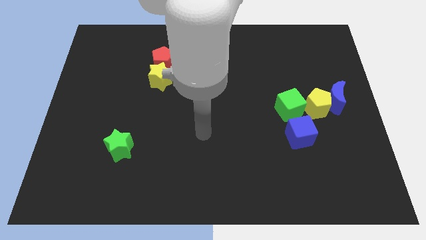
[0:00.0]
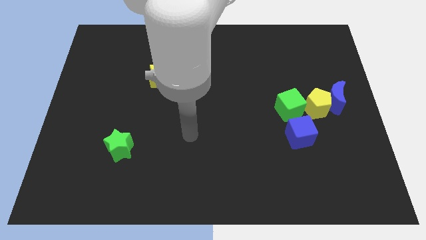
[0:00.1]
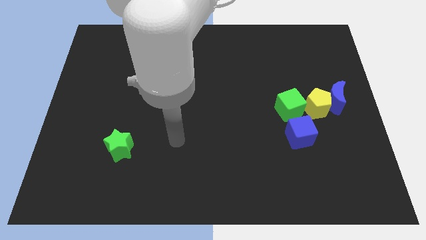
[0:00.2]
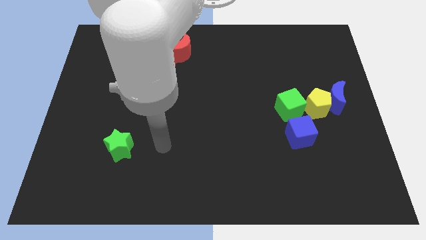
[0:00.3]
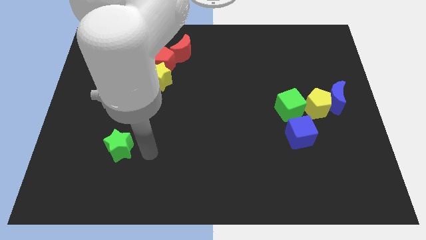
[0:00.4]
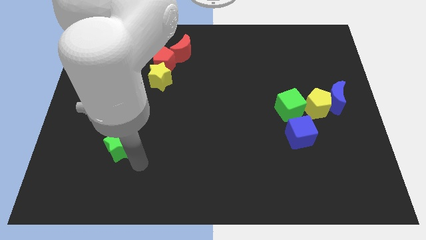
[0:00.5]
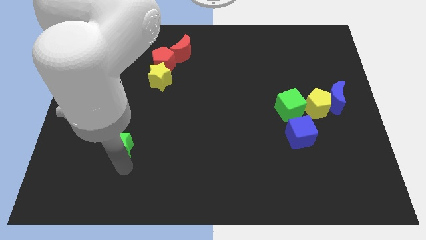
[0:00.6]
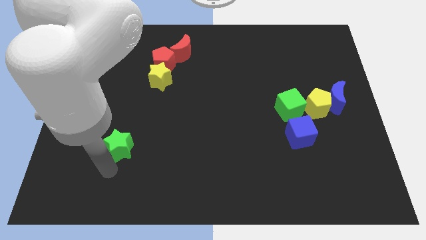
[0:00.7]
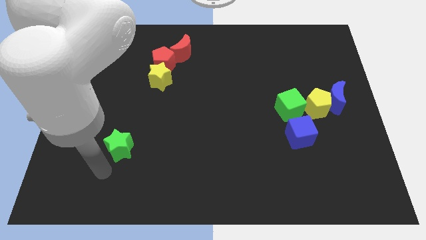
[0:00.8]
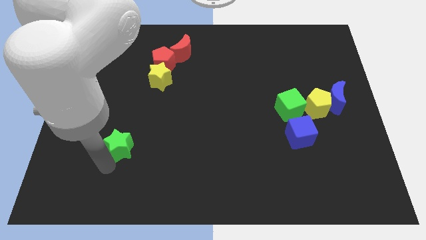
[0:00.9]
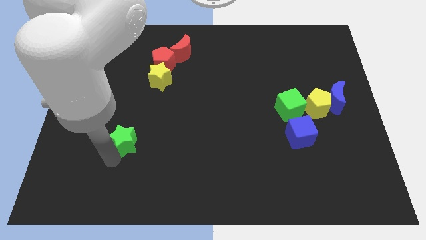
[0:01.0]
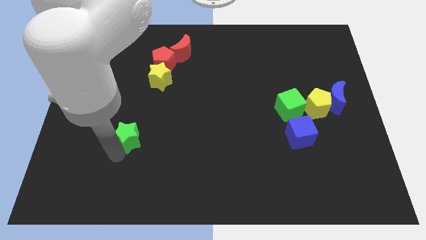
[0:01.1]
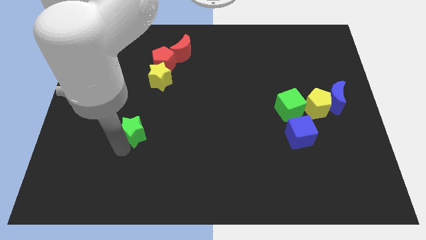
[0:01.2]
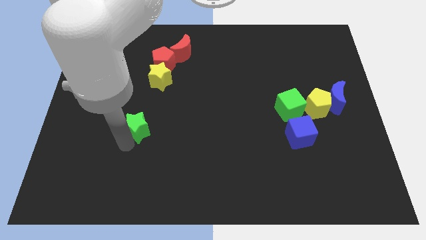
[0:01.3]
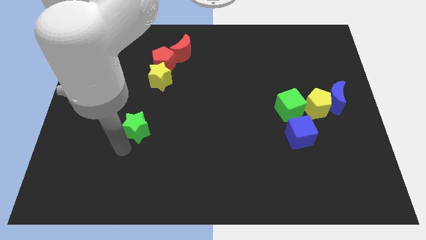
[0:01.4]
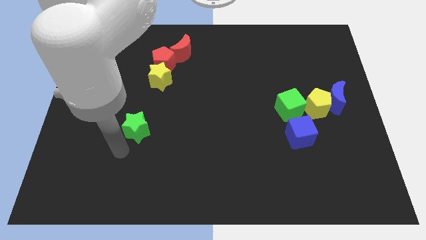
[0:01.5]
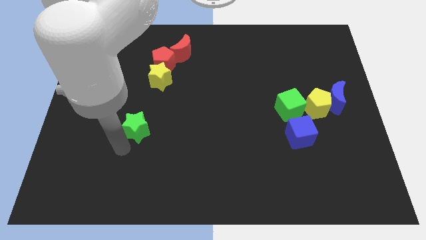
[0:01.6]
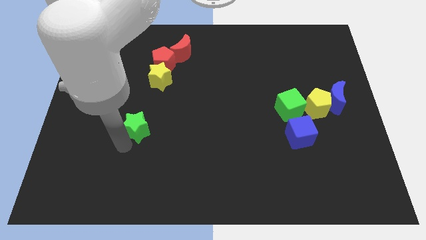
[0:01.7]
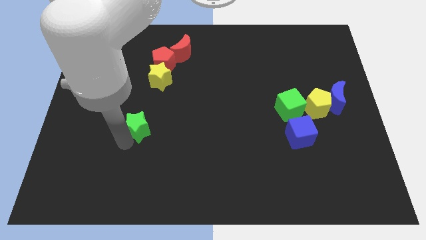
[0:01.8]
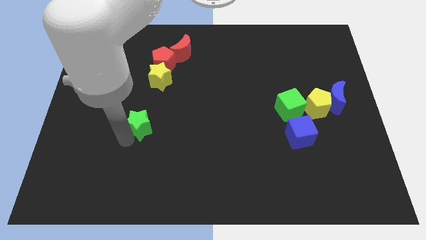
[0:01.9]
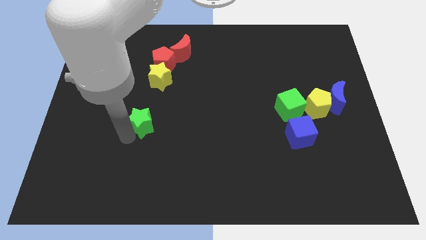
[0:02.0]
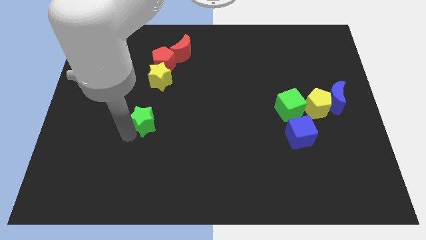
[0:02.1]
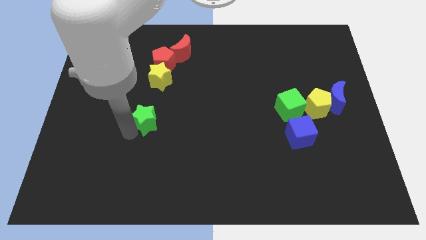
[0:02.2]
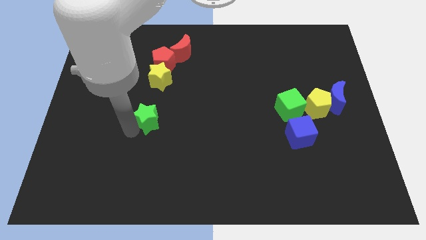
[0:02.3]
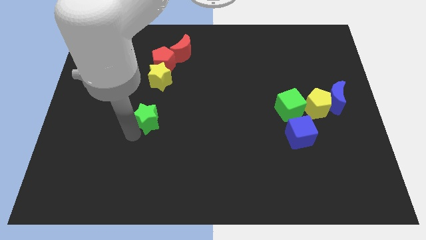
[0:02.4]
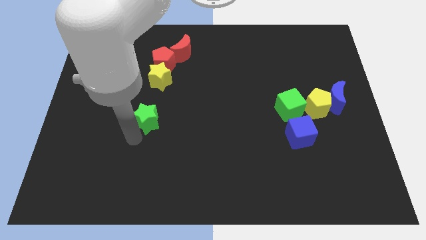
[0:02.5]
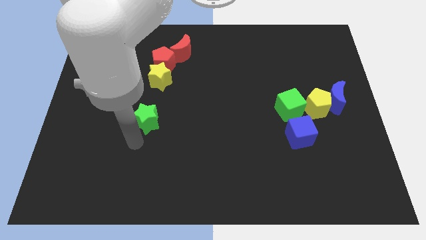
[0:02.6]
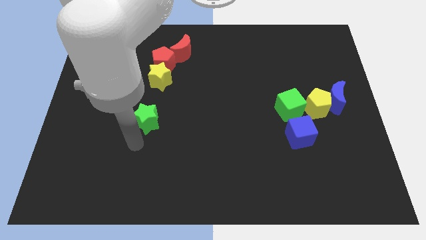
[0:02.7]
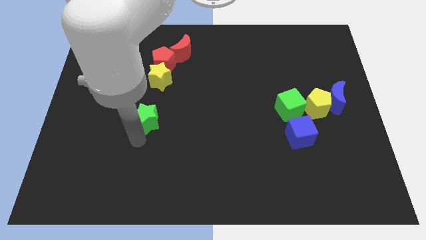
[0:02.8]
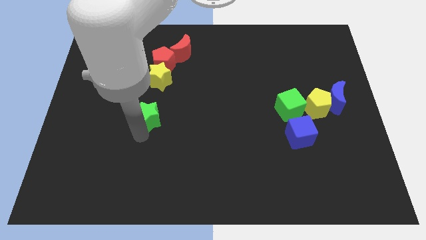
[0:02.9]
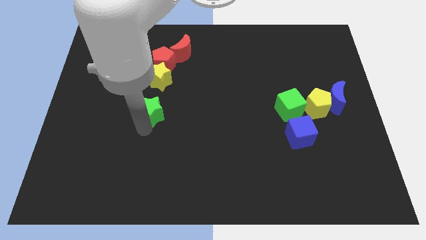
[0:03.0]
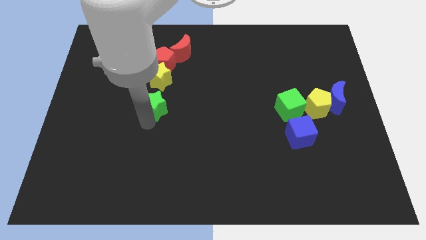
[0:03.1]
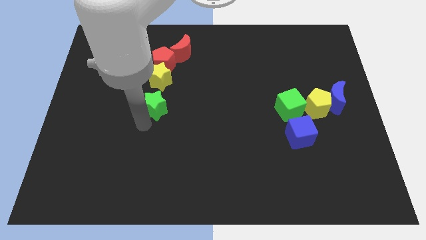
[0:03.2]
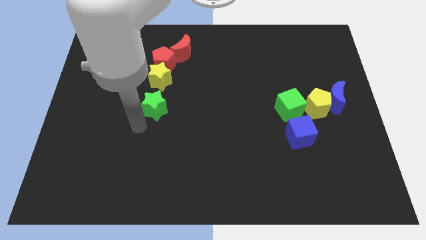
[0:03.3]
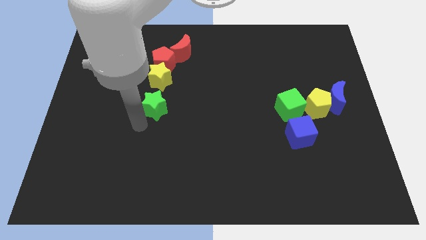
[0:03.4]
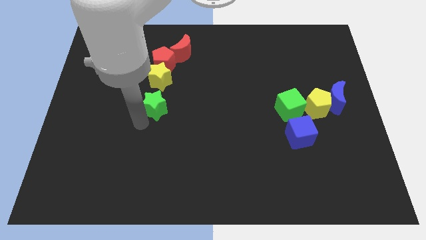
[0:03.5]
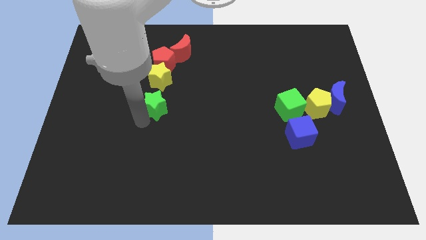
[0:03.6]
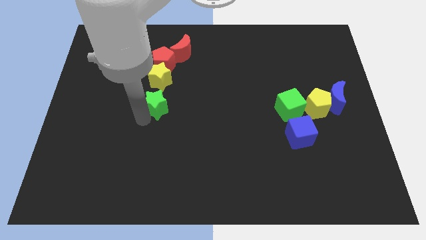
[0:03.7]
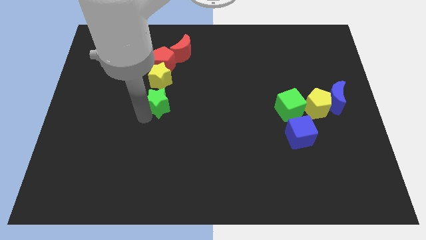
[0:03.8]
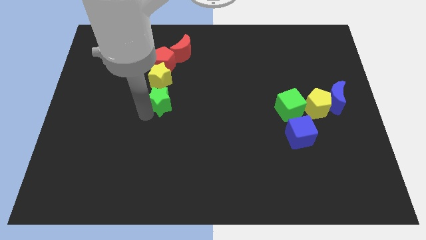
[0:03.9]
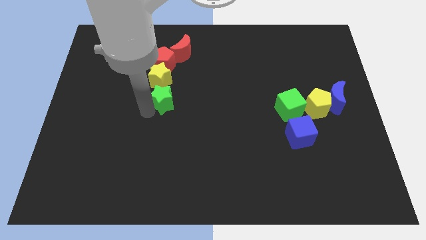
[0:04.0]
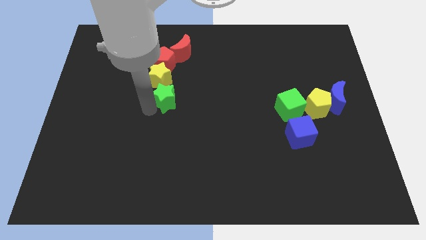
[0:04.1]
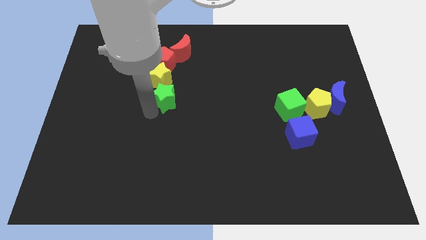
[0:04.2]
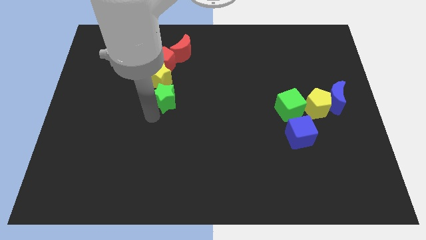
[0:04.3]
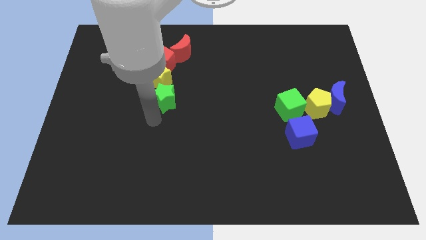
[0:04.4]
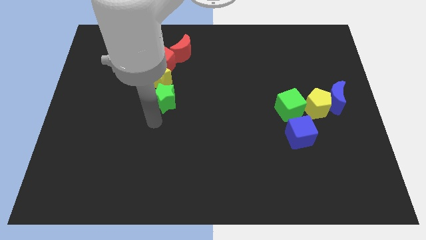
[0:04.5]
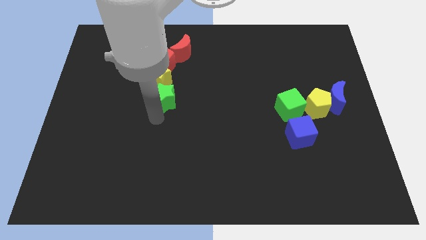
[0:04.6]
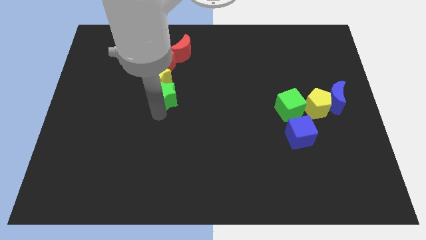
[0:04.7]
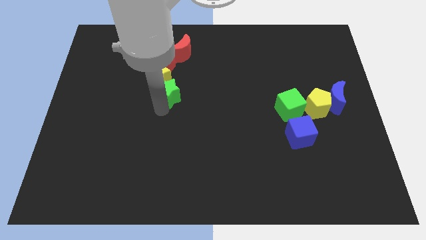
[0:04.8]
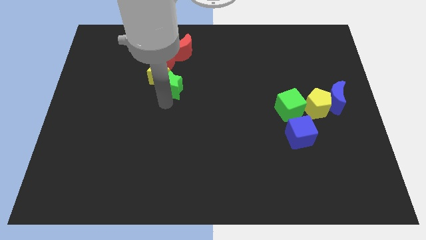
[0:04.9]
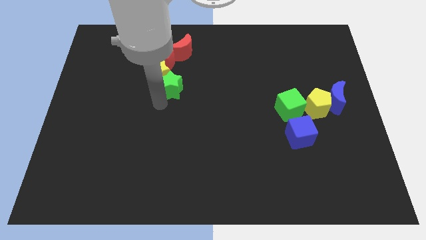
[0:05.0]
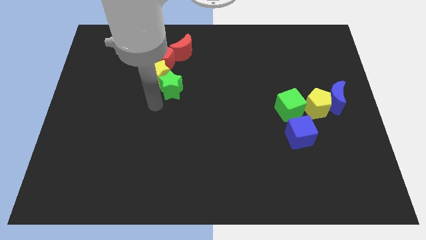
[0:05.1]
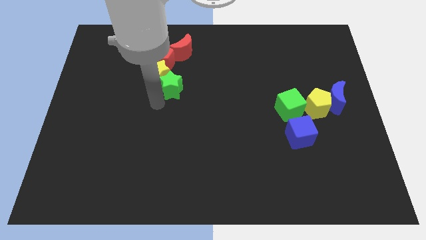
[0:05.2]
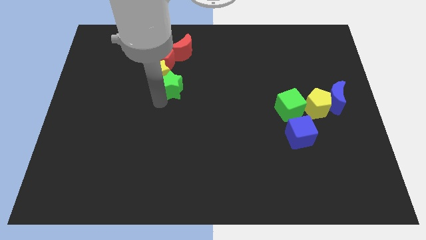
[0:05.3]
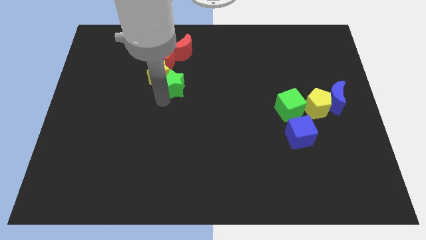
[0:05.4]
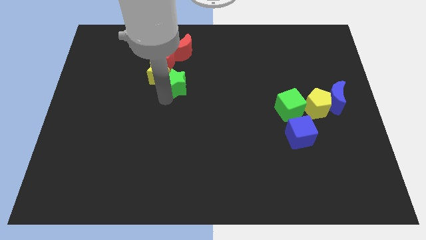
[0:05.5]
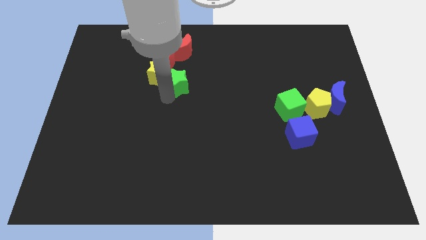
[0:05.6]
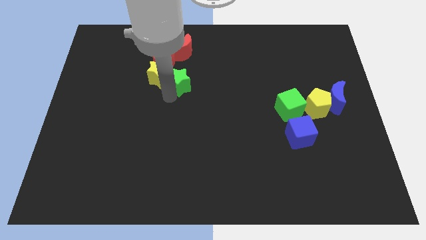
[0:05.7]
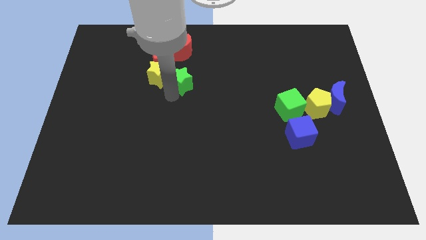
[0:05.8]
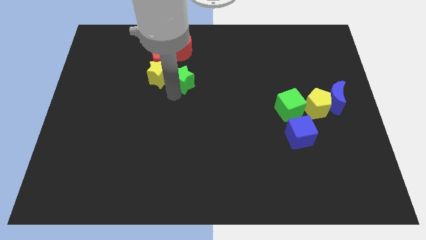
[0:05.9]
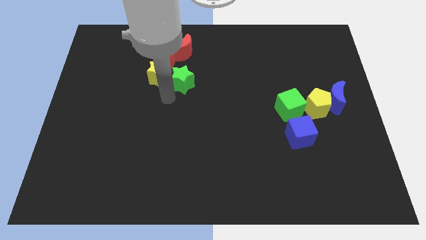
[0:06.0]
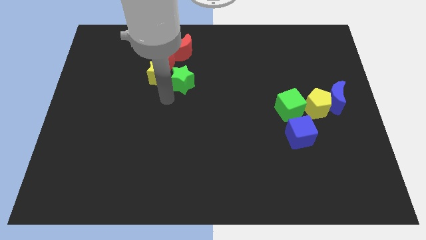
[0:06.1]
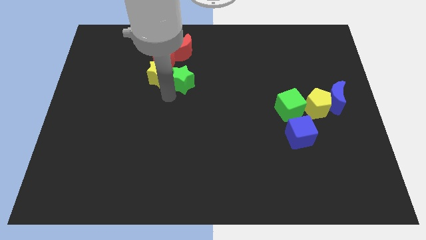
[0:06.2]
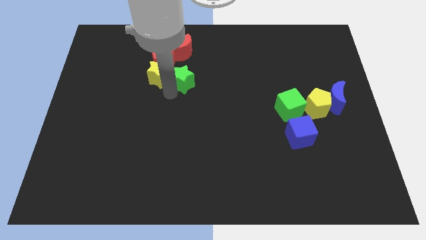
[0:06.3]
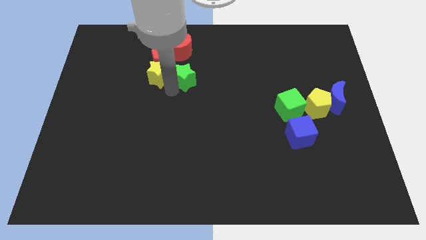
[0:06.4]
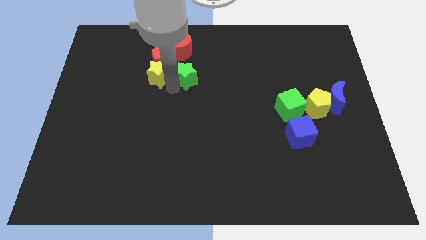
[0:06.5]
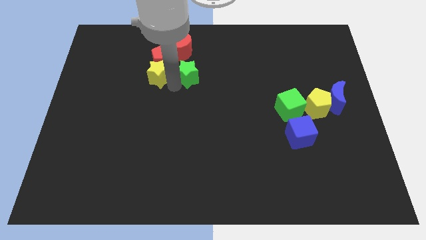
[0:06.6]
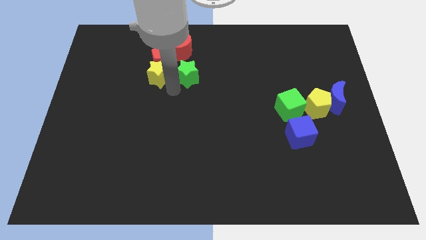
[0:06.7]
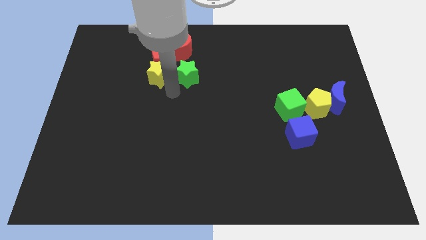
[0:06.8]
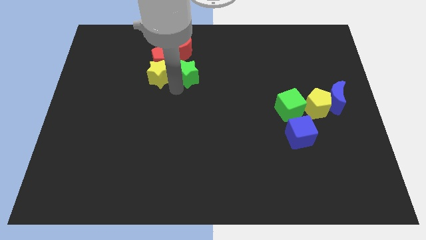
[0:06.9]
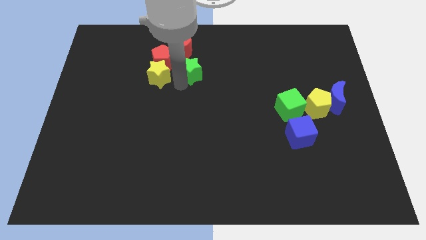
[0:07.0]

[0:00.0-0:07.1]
put the green star to the right side of the red pentagon
